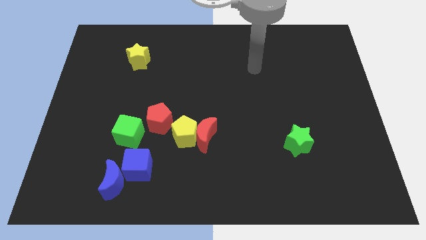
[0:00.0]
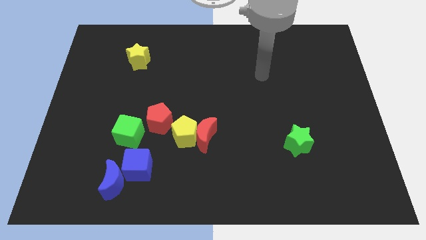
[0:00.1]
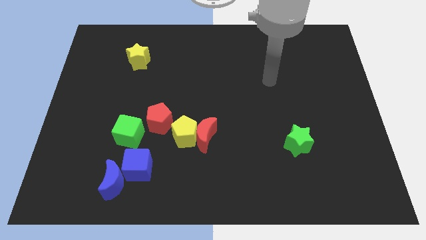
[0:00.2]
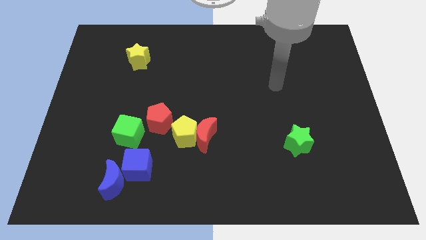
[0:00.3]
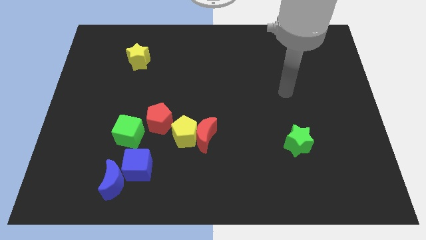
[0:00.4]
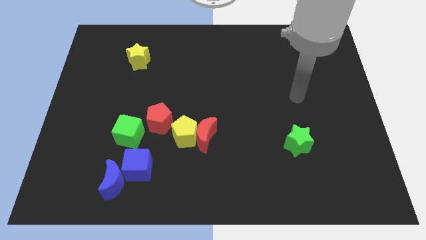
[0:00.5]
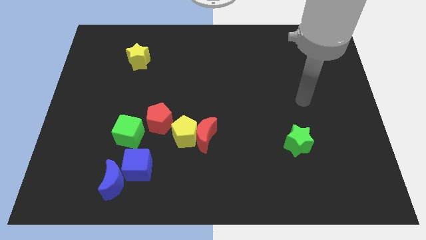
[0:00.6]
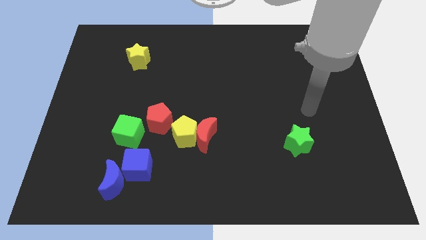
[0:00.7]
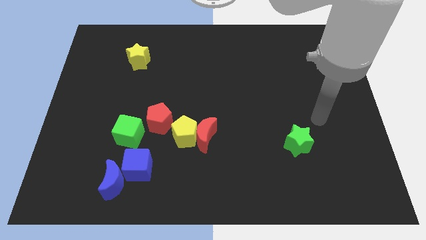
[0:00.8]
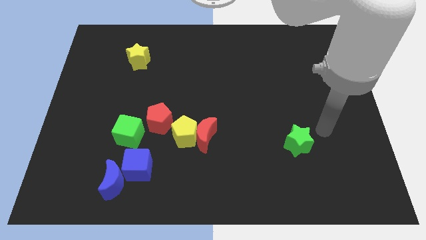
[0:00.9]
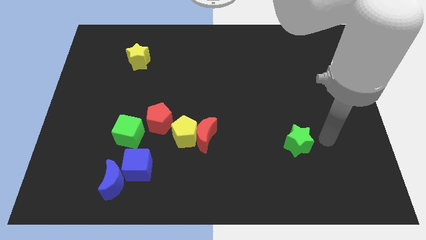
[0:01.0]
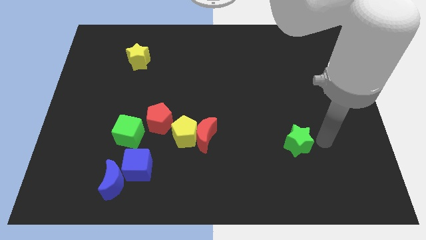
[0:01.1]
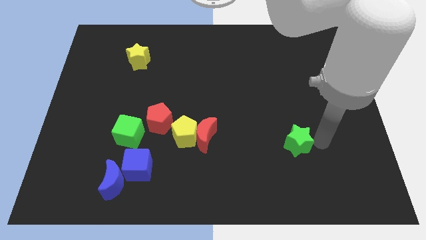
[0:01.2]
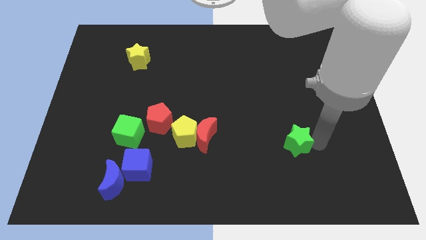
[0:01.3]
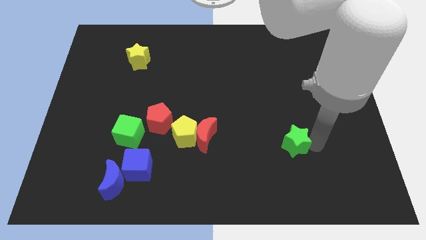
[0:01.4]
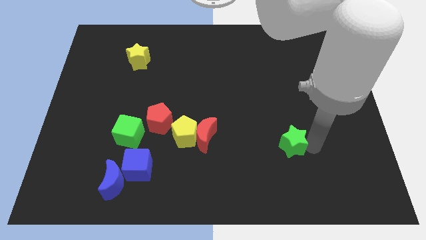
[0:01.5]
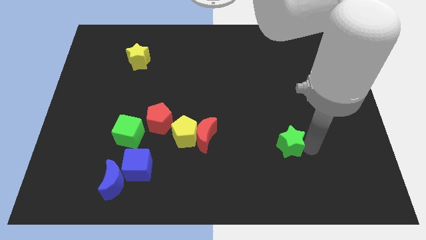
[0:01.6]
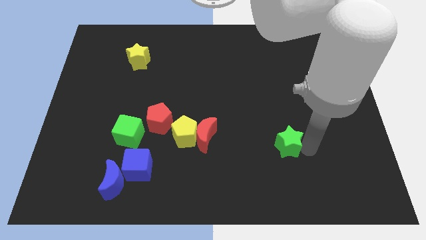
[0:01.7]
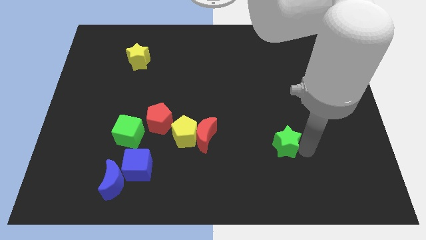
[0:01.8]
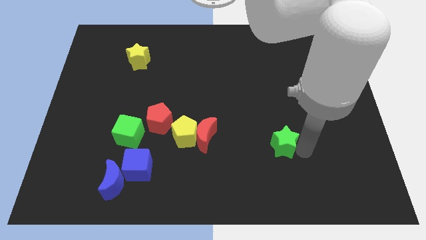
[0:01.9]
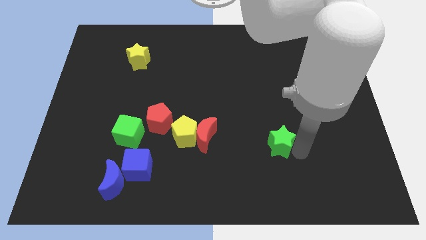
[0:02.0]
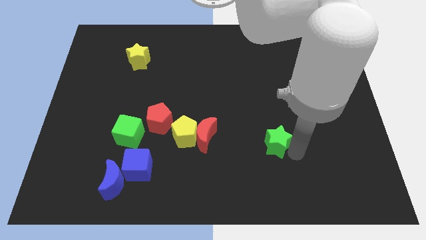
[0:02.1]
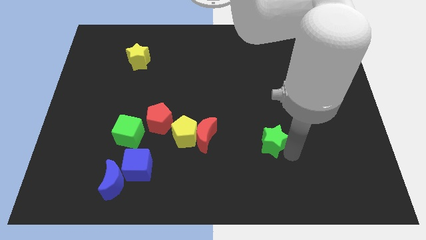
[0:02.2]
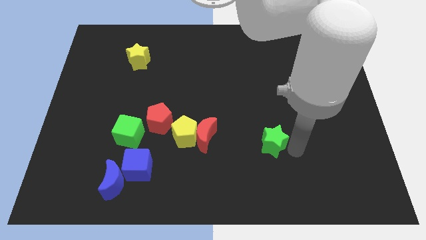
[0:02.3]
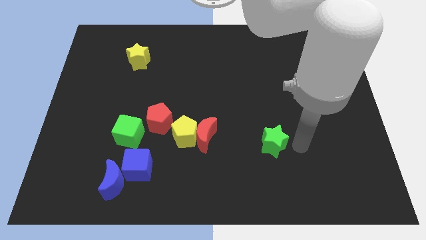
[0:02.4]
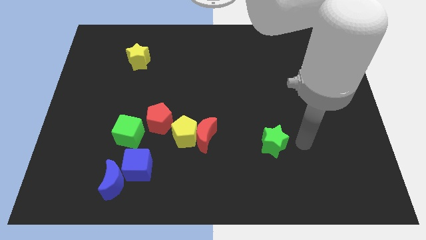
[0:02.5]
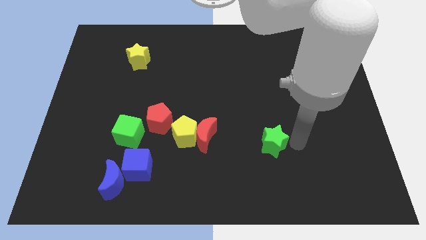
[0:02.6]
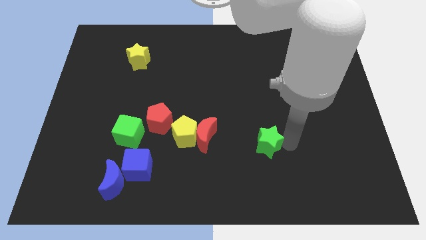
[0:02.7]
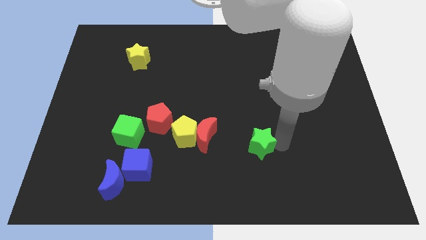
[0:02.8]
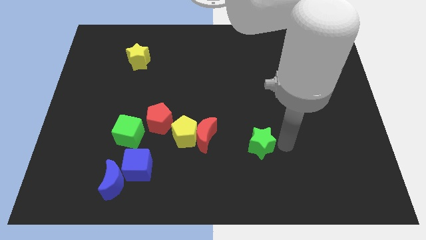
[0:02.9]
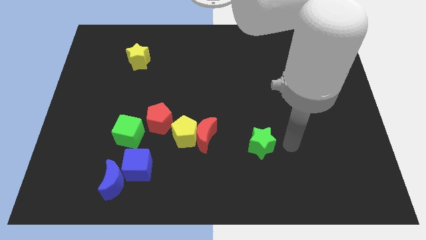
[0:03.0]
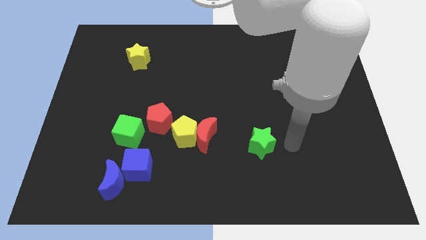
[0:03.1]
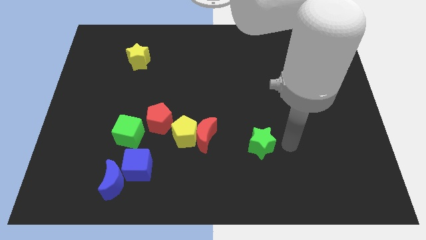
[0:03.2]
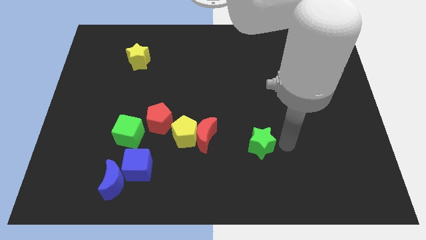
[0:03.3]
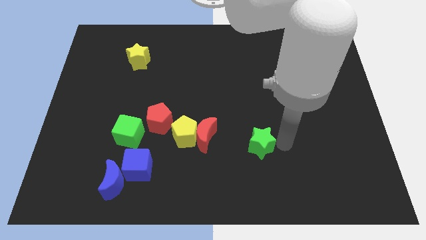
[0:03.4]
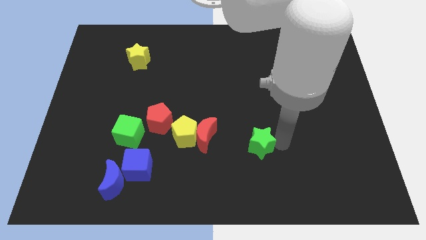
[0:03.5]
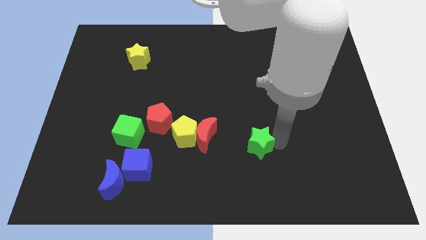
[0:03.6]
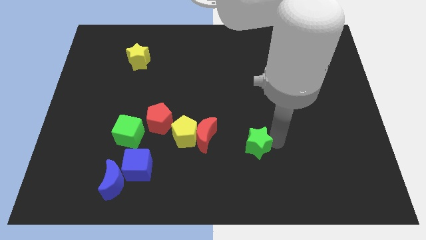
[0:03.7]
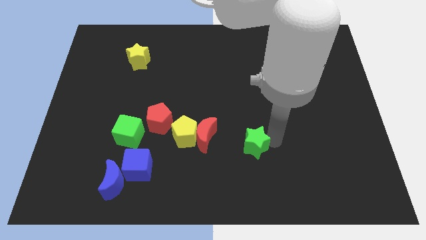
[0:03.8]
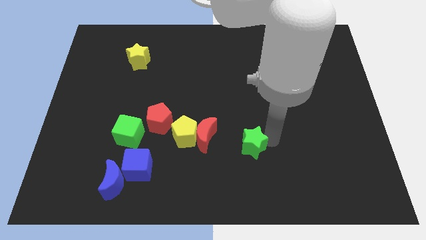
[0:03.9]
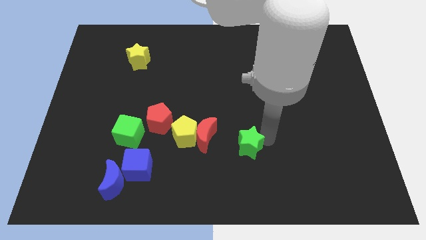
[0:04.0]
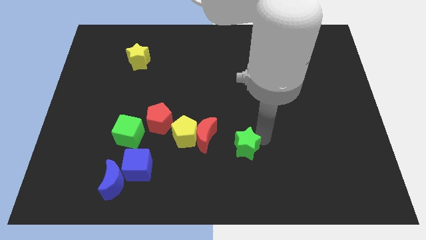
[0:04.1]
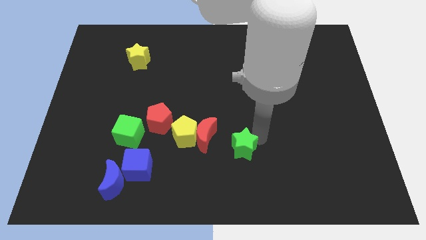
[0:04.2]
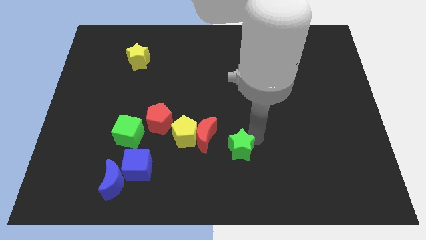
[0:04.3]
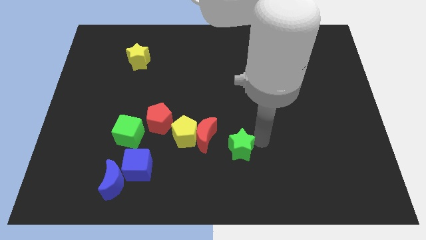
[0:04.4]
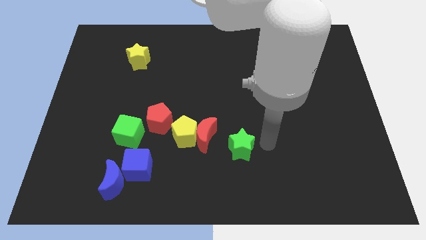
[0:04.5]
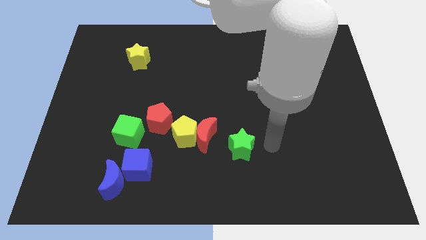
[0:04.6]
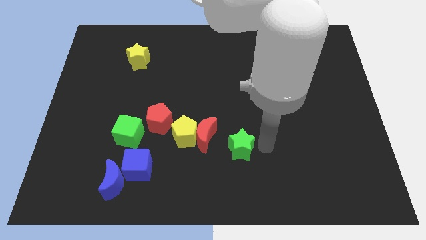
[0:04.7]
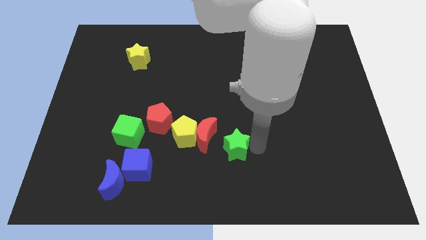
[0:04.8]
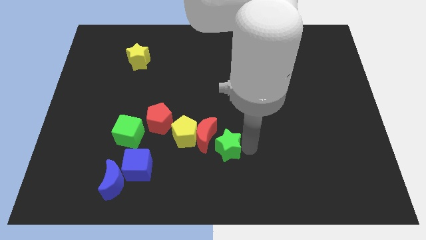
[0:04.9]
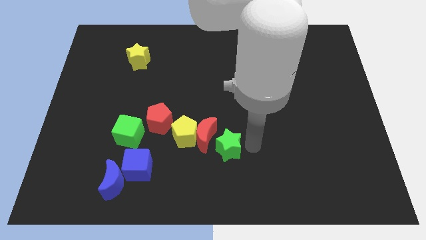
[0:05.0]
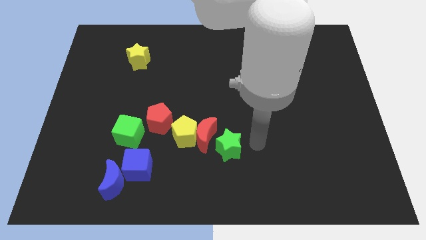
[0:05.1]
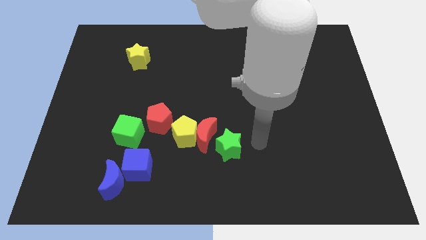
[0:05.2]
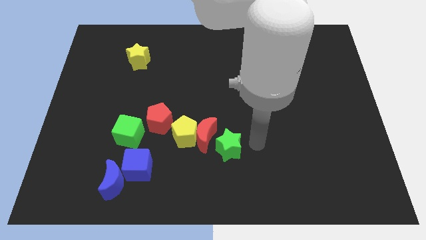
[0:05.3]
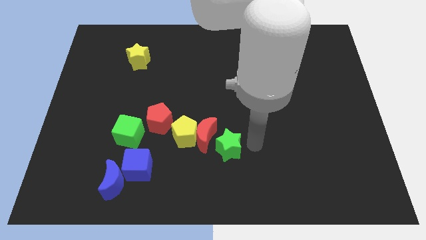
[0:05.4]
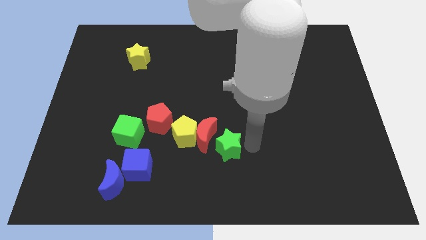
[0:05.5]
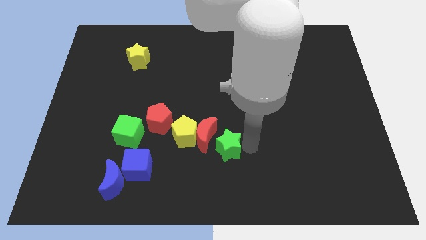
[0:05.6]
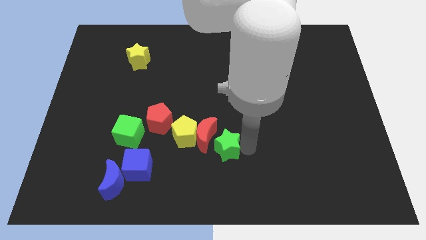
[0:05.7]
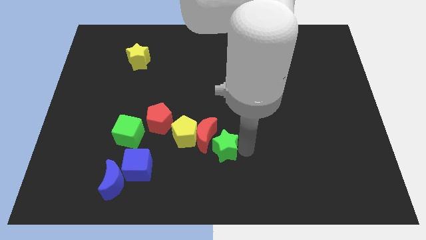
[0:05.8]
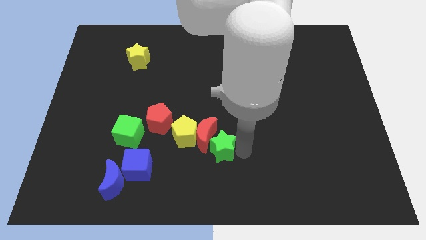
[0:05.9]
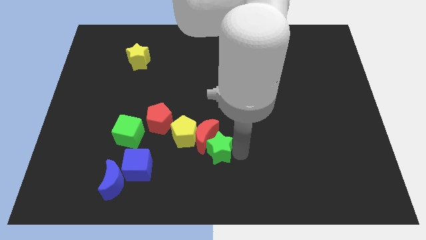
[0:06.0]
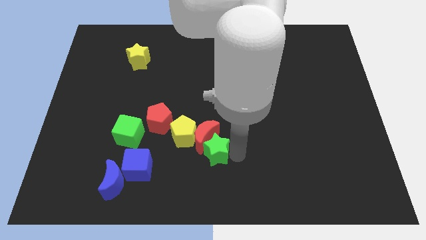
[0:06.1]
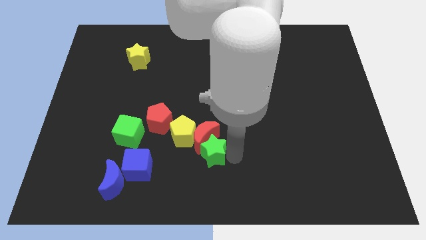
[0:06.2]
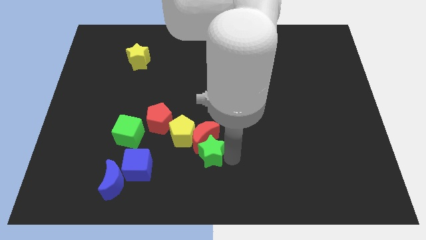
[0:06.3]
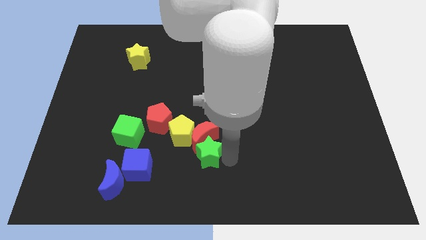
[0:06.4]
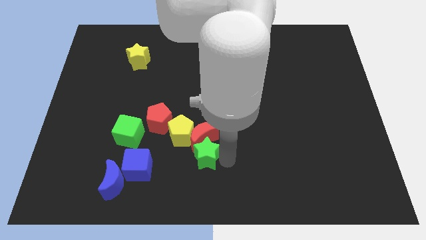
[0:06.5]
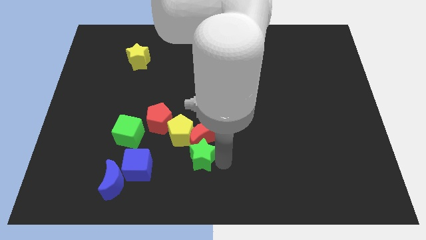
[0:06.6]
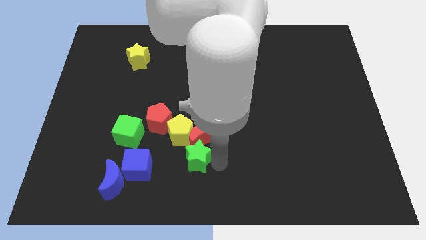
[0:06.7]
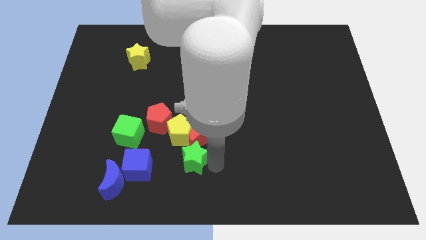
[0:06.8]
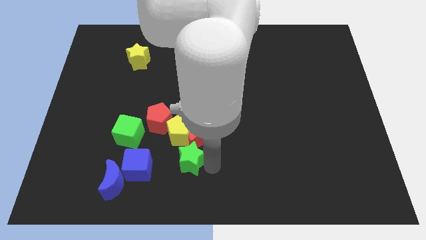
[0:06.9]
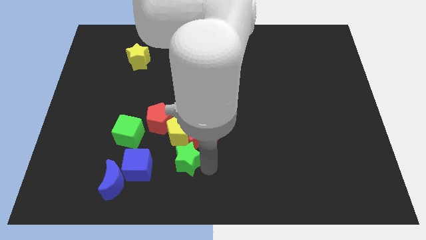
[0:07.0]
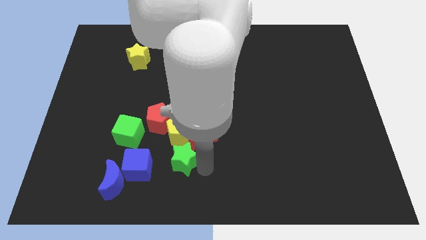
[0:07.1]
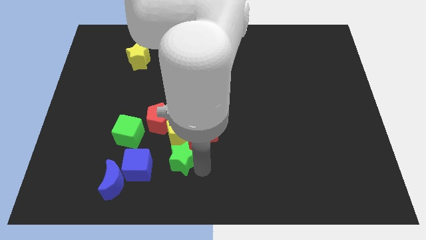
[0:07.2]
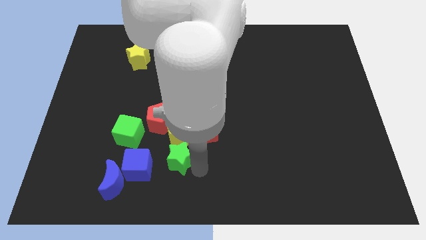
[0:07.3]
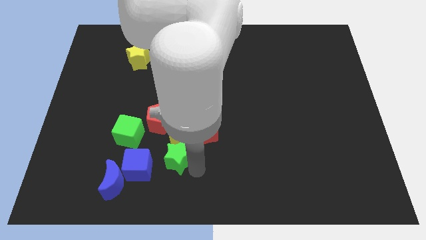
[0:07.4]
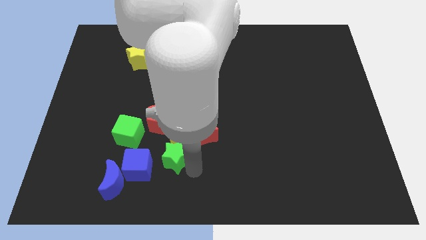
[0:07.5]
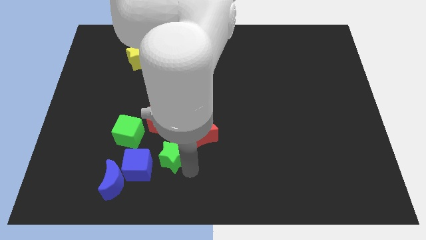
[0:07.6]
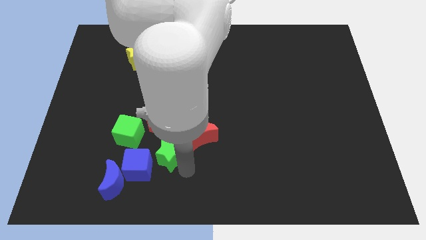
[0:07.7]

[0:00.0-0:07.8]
put the green star to the left side of the red moon
